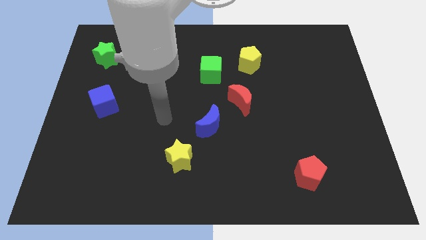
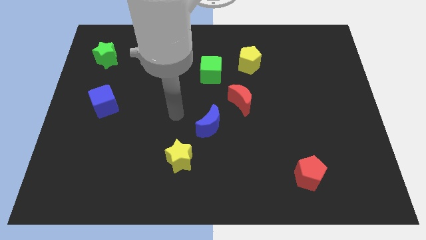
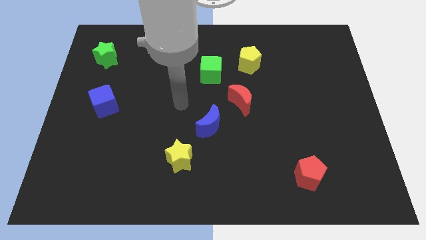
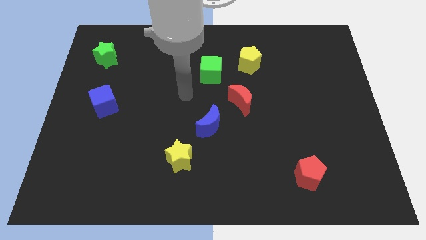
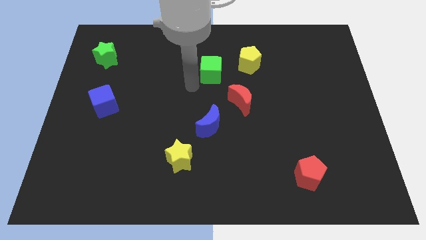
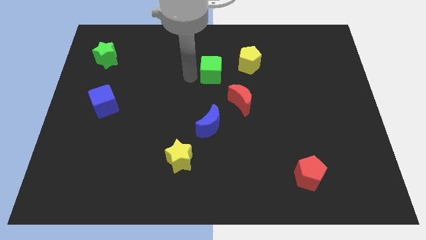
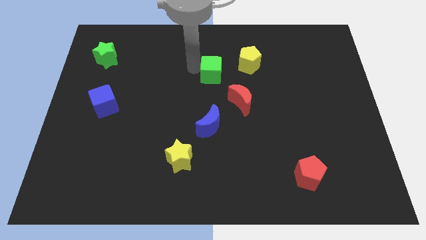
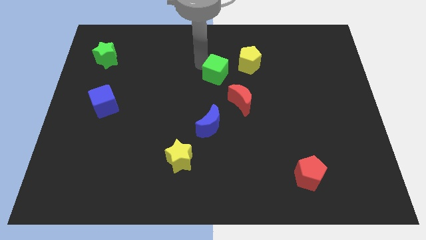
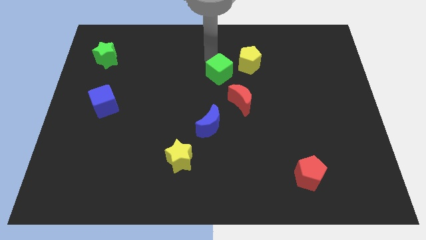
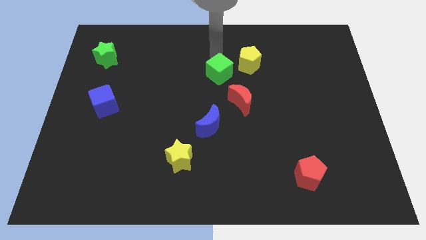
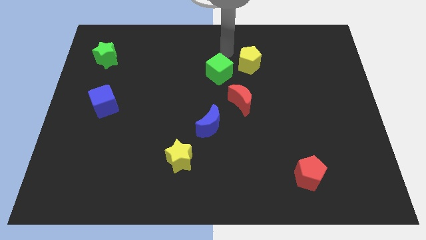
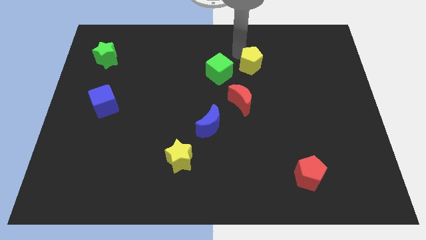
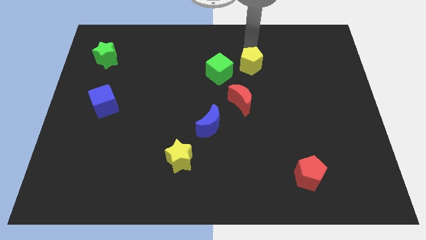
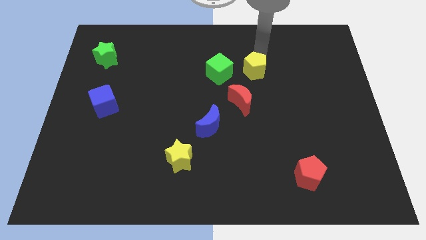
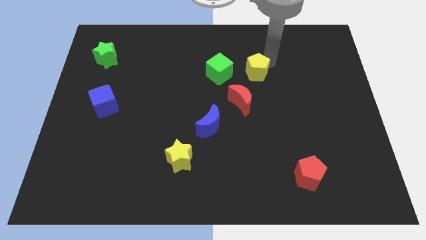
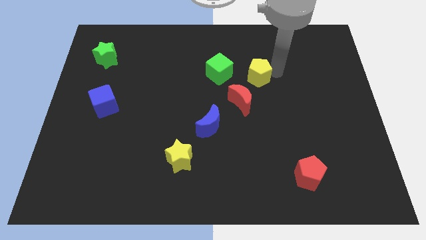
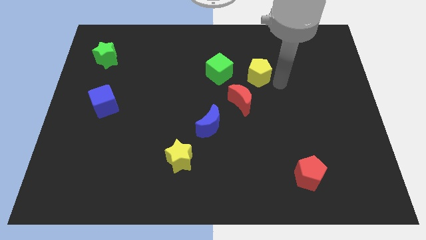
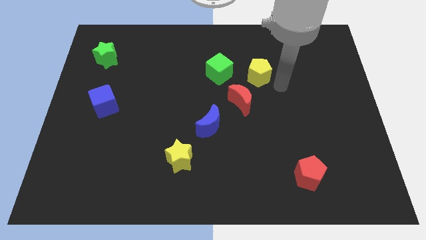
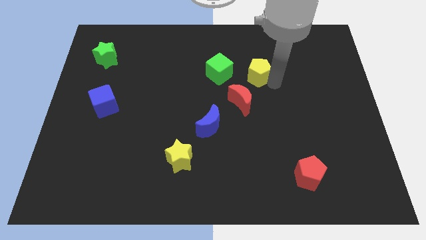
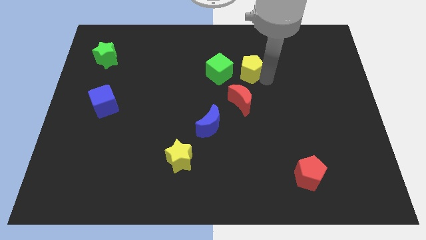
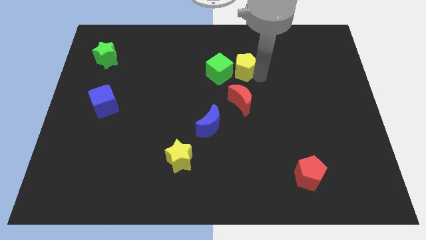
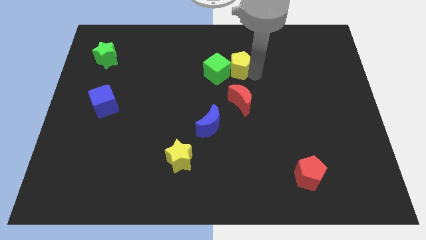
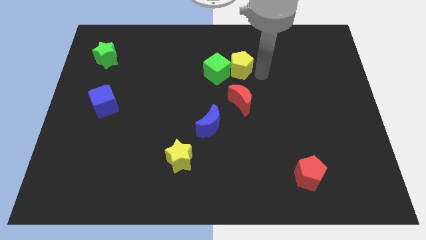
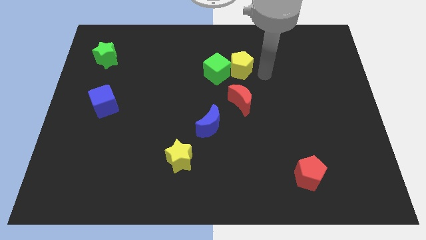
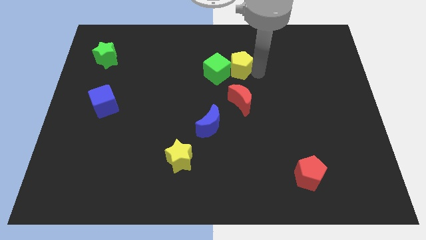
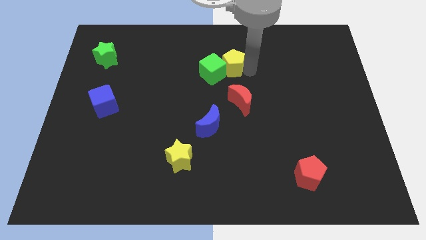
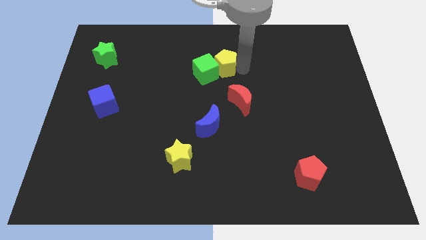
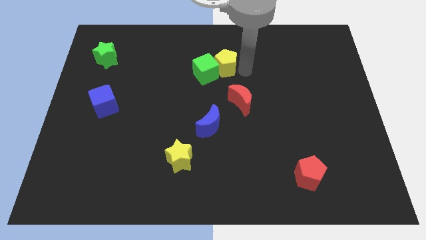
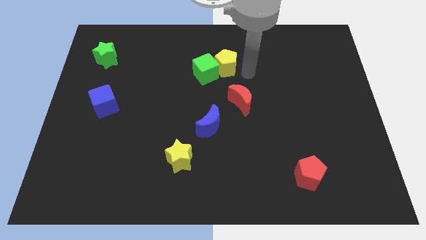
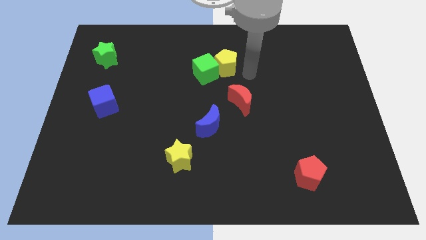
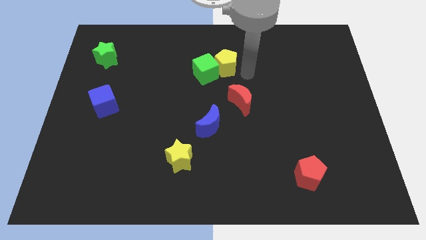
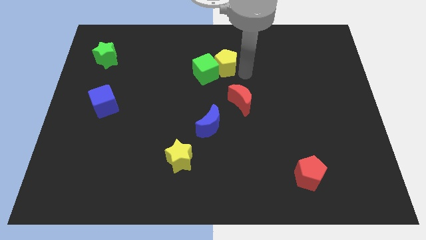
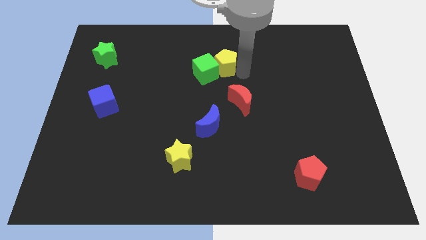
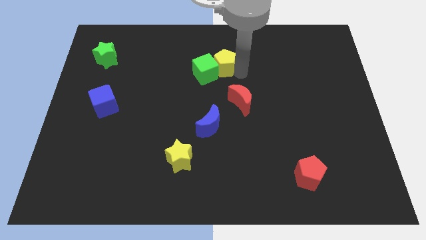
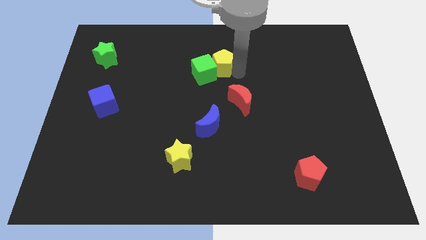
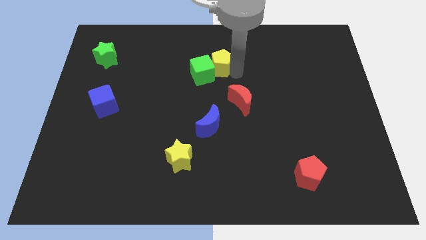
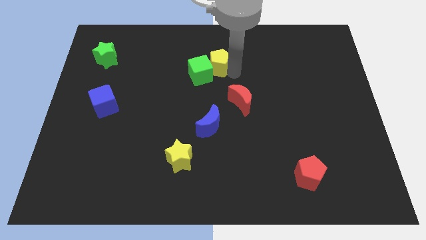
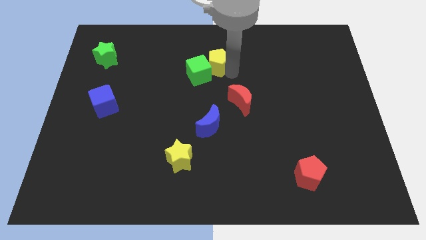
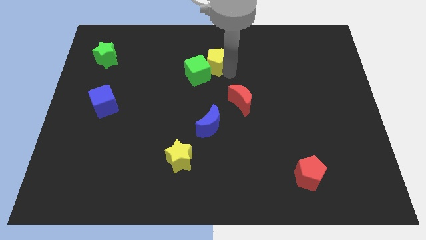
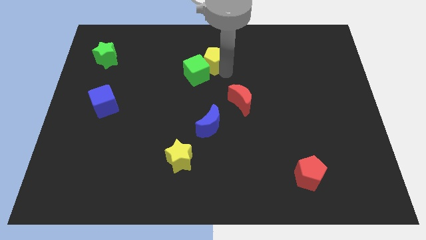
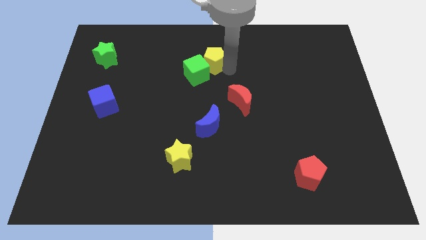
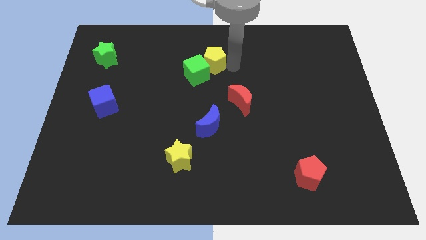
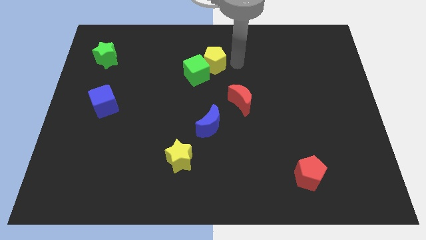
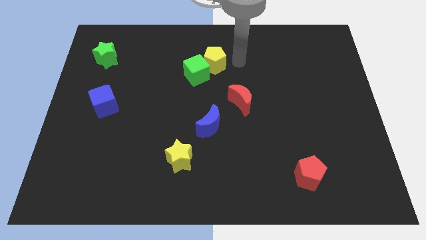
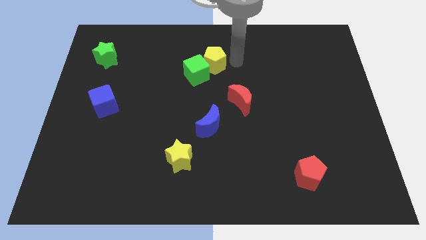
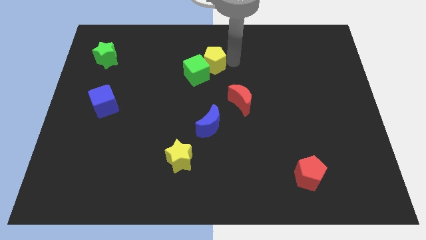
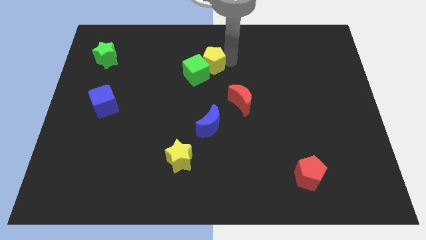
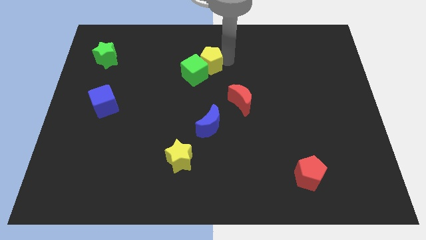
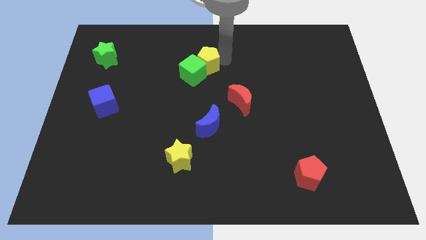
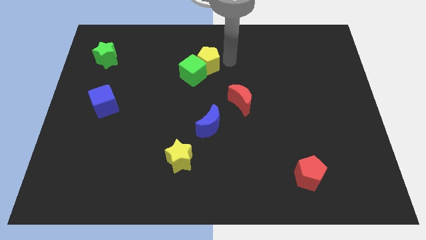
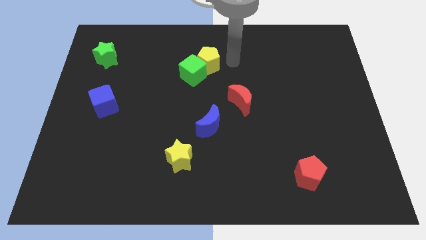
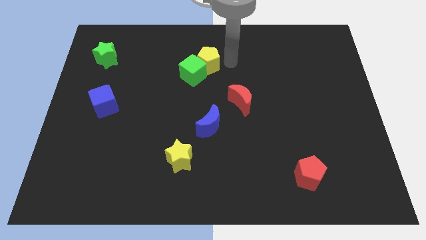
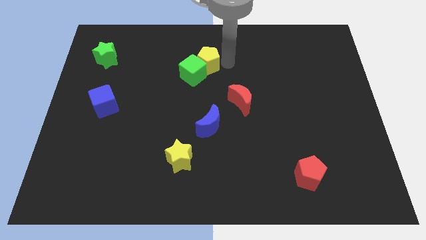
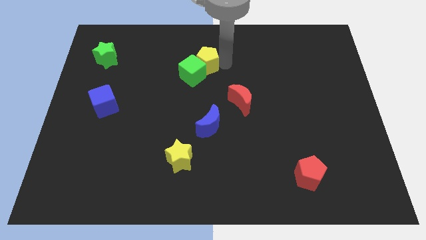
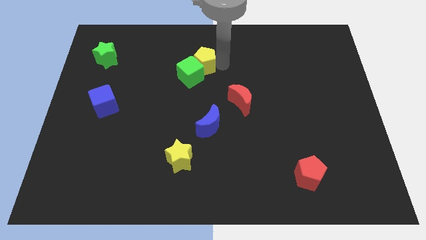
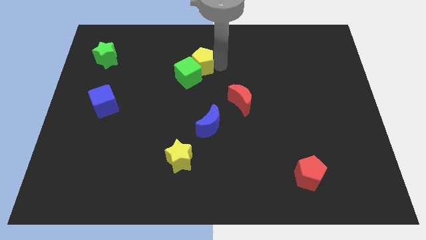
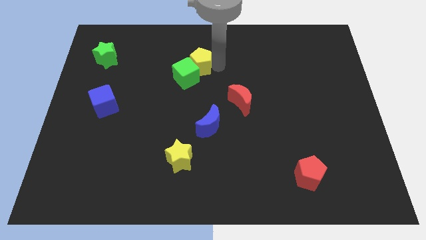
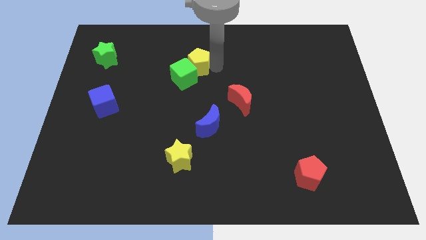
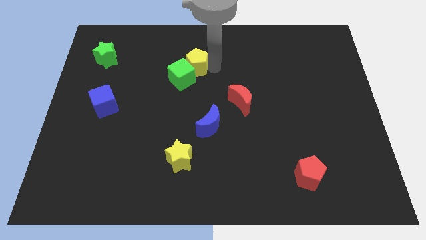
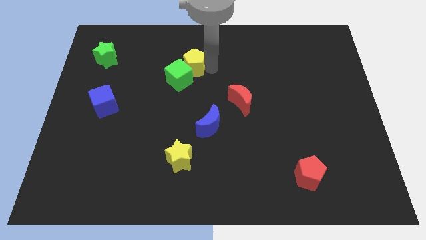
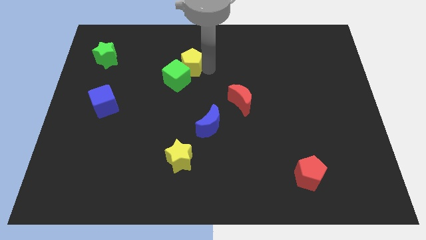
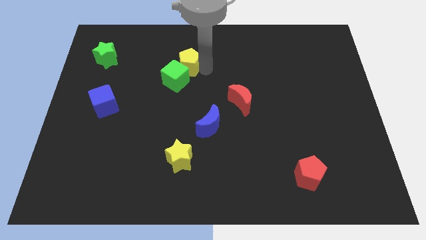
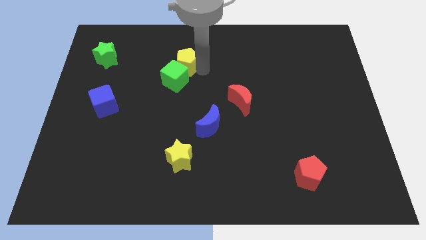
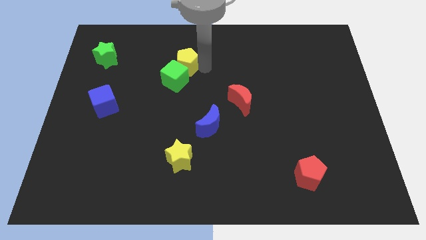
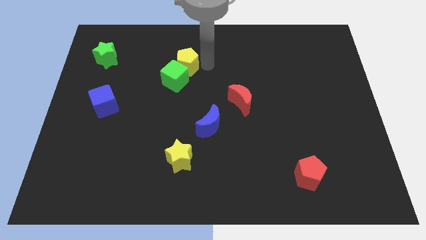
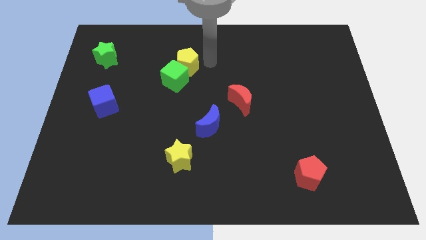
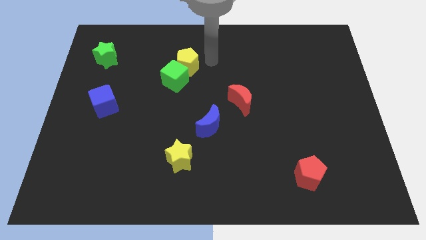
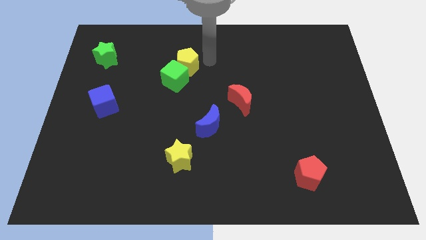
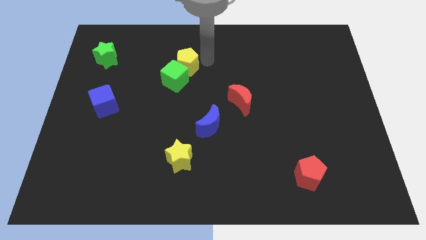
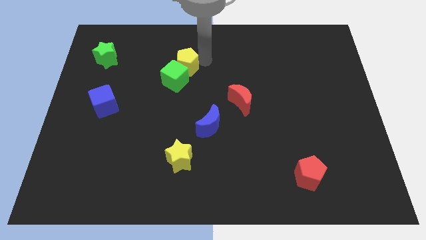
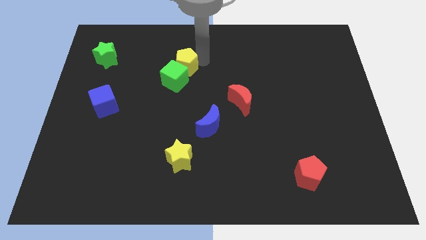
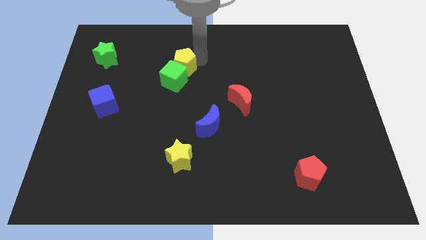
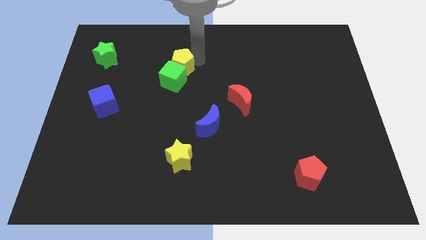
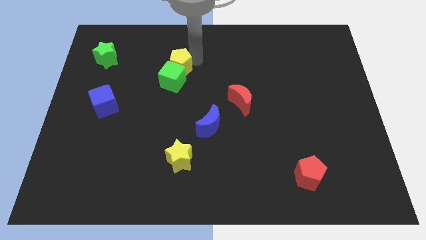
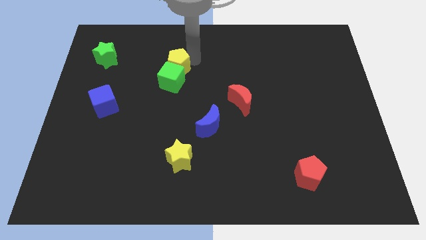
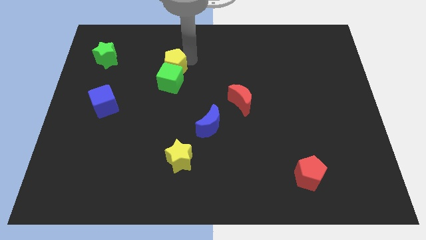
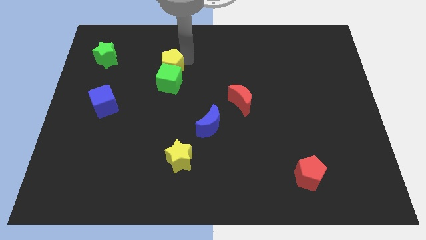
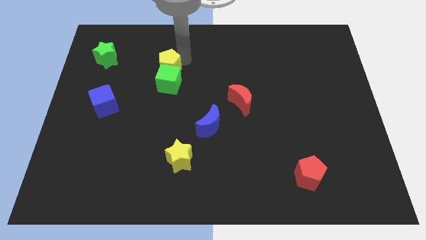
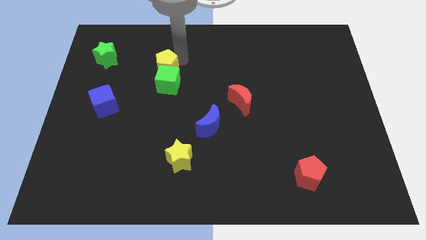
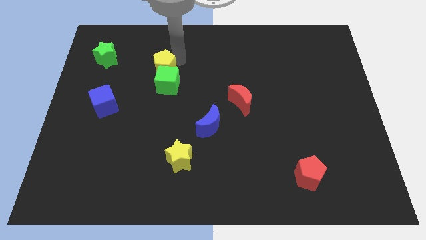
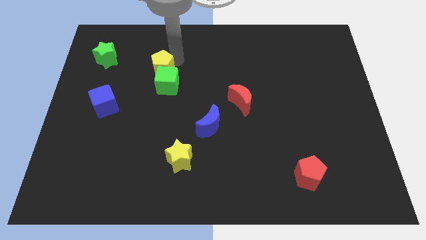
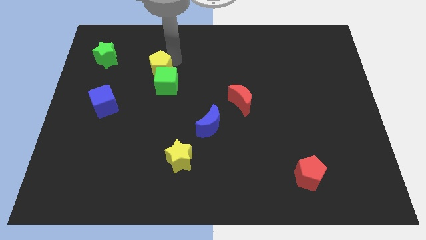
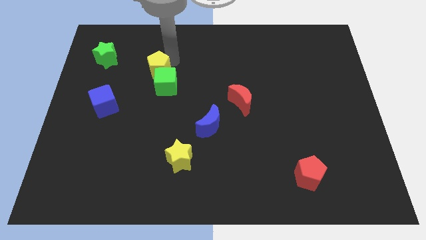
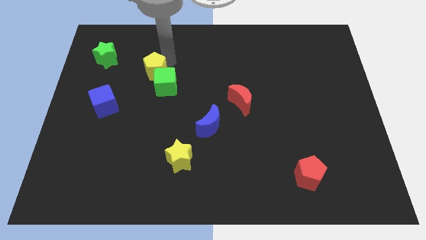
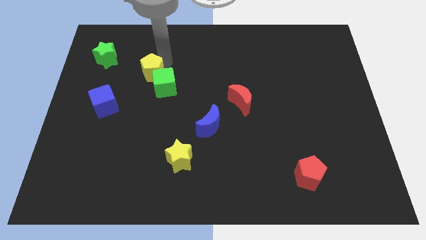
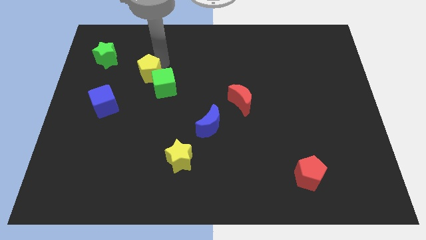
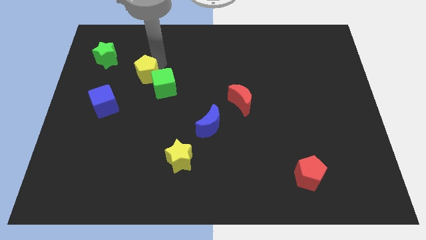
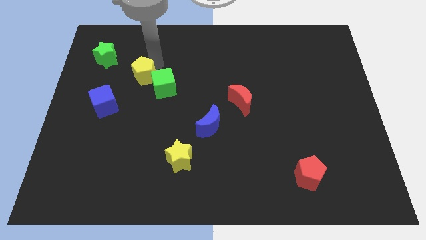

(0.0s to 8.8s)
slide the yellow pentagon to the top right side of the blue cube
